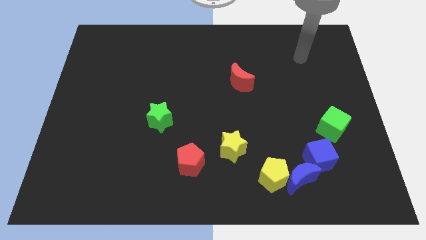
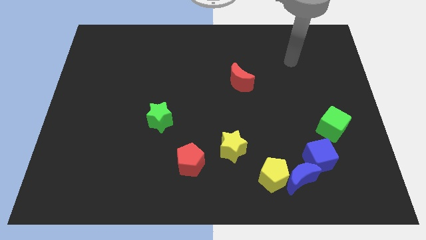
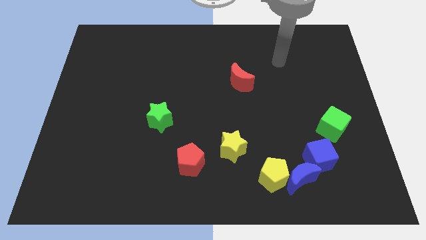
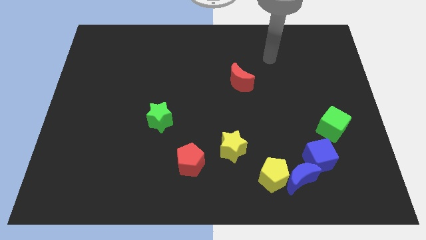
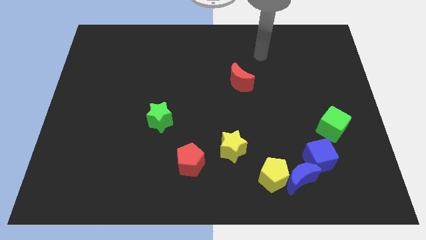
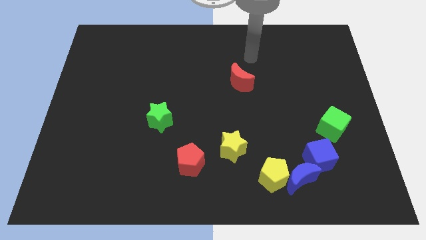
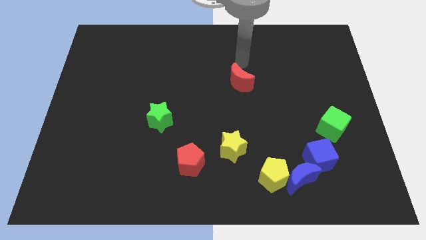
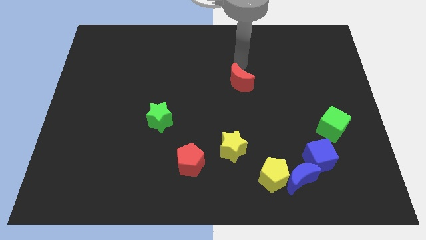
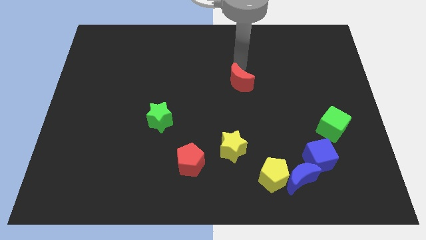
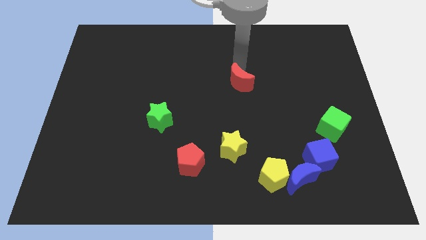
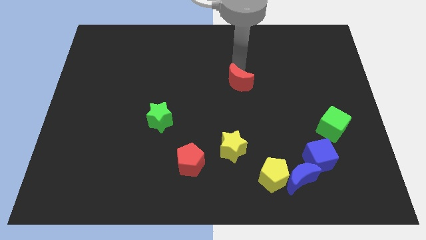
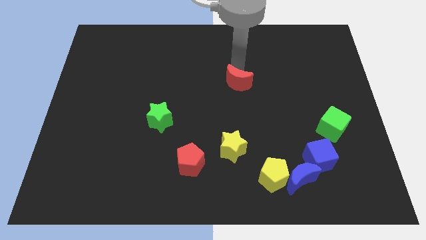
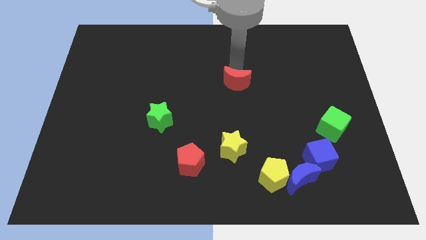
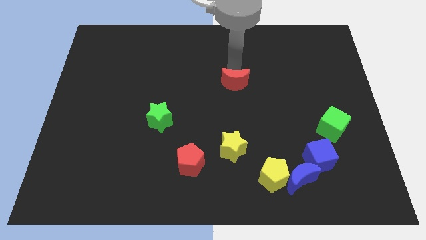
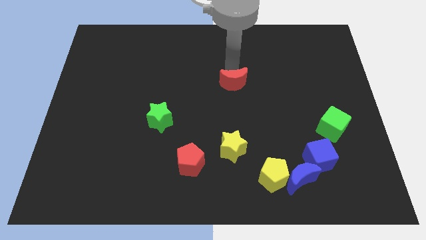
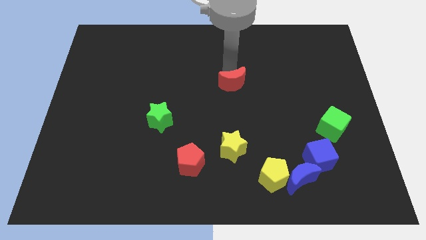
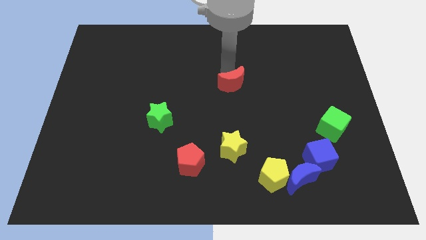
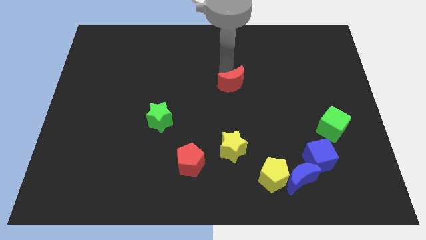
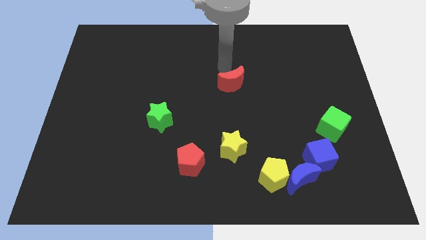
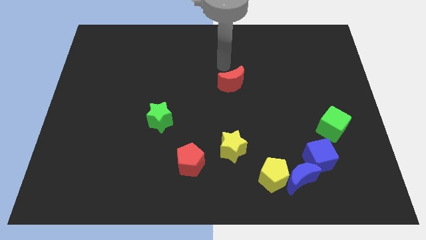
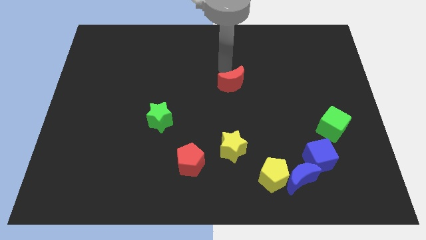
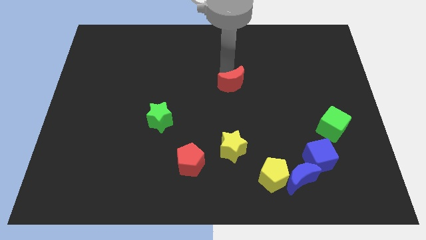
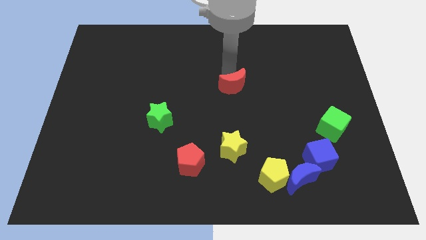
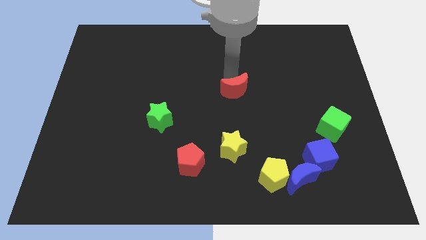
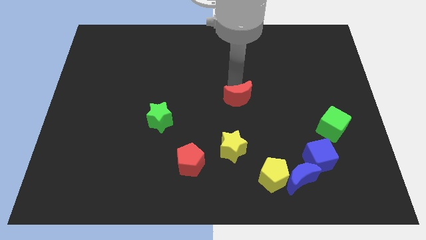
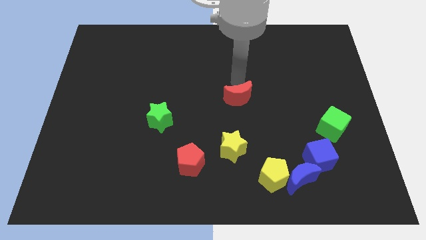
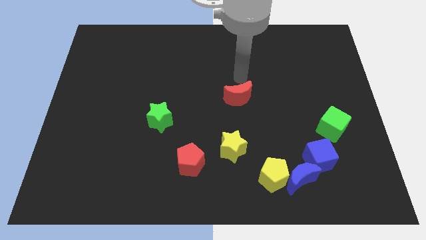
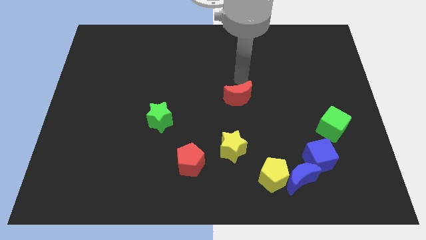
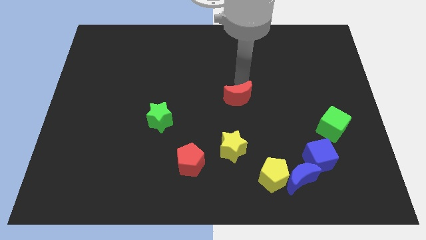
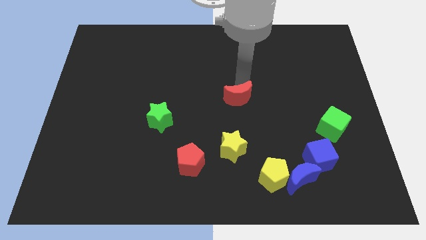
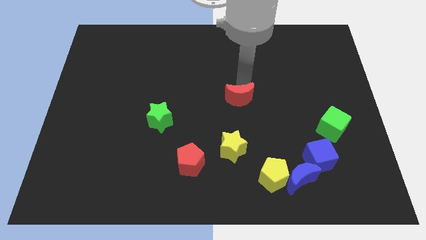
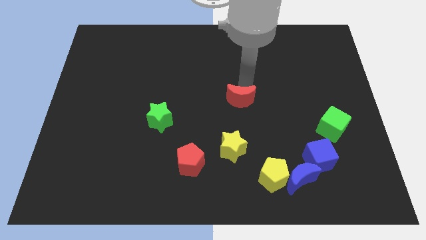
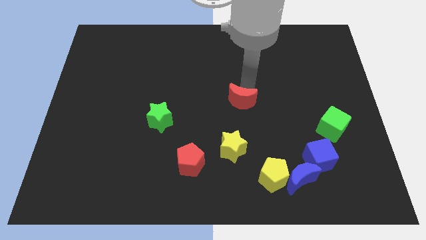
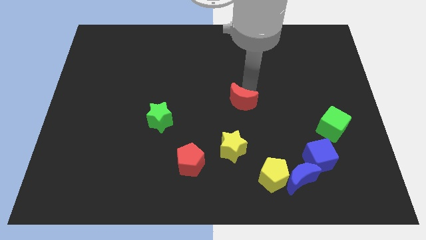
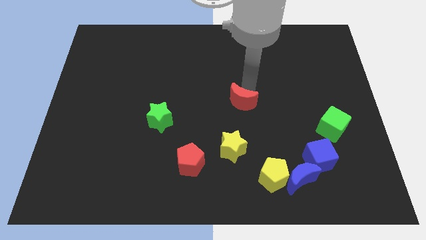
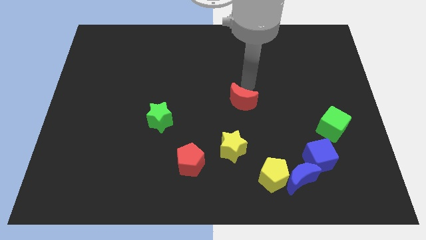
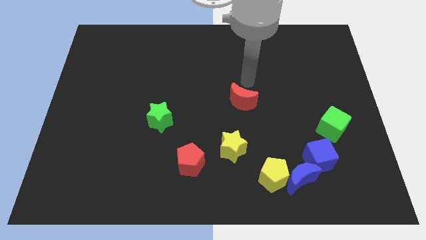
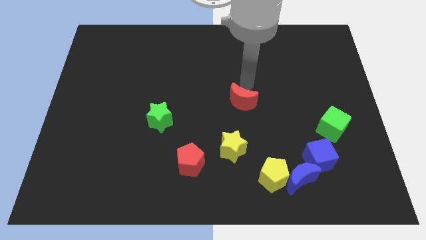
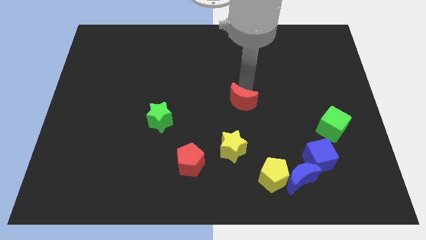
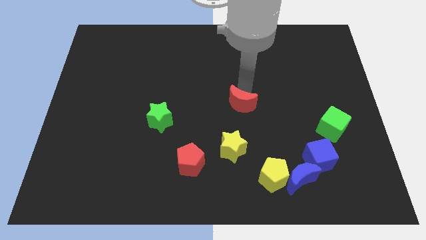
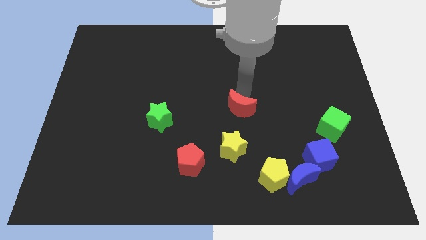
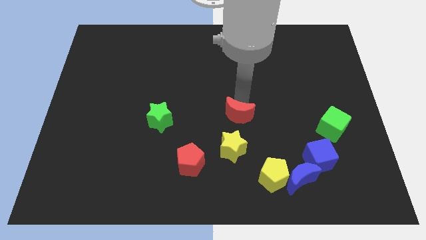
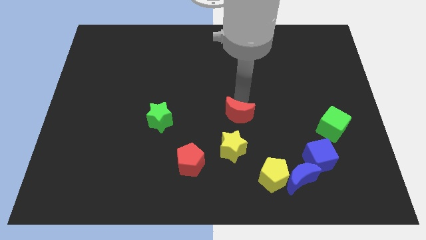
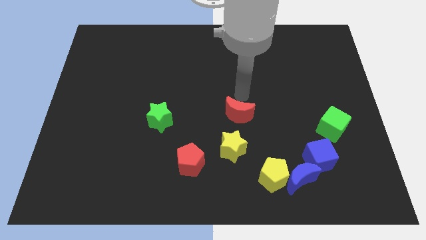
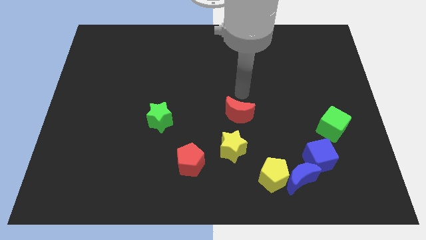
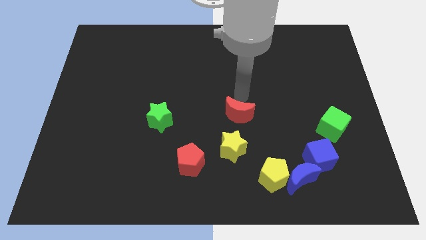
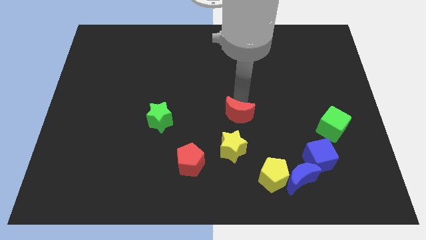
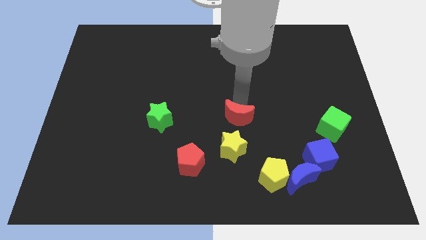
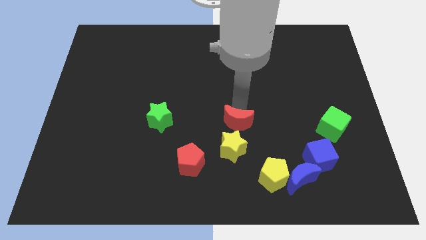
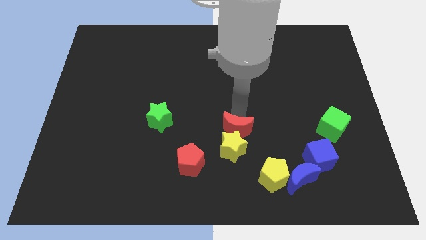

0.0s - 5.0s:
move the red moon next to the yellow star

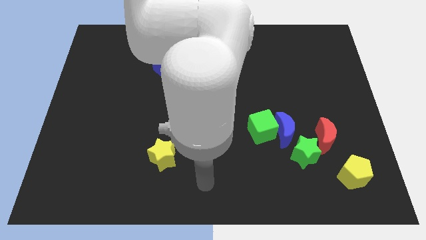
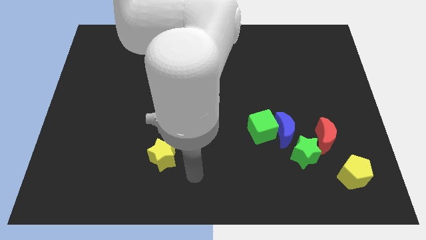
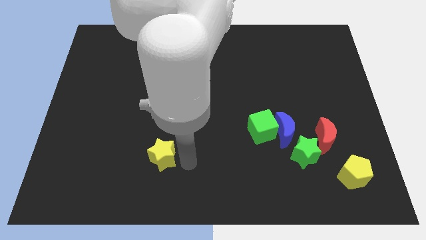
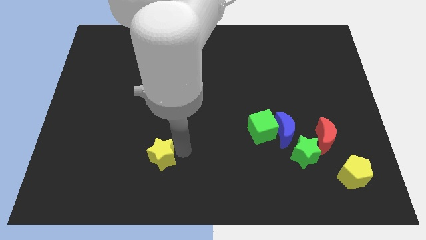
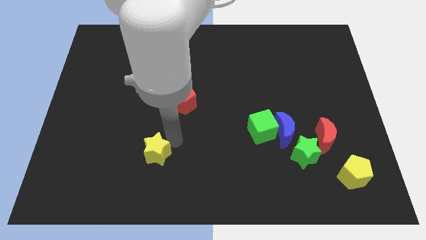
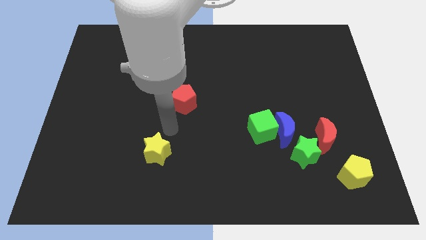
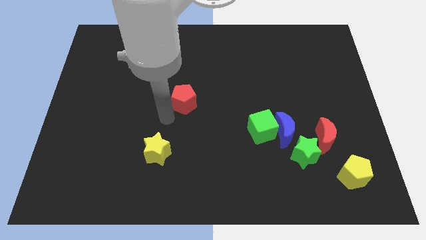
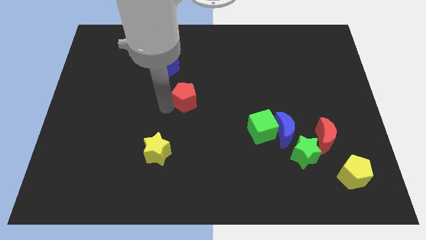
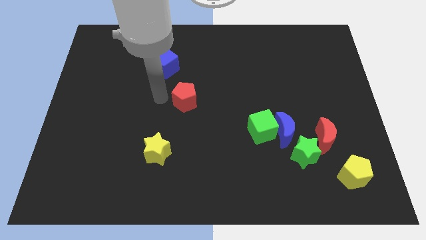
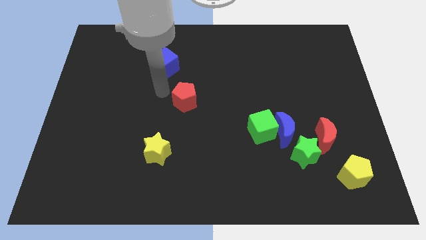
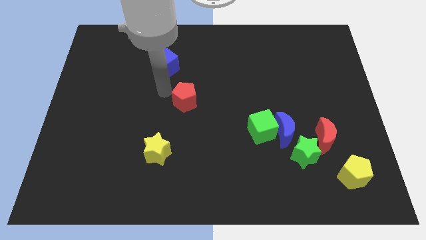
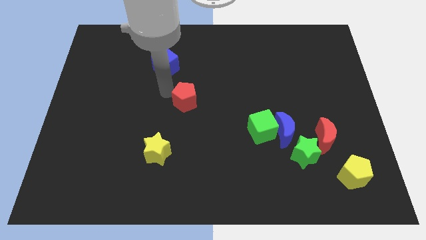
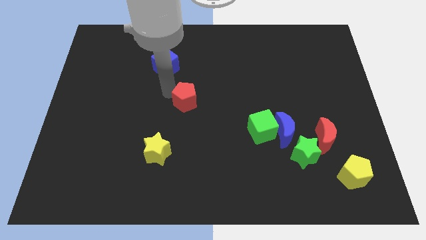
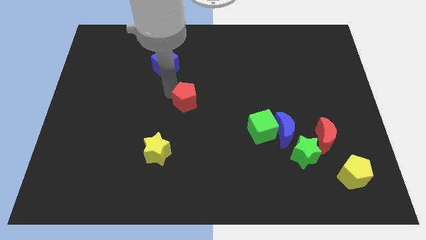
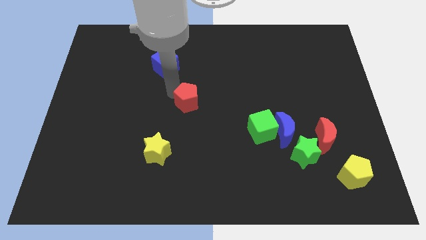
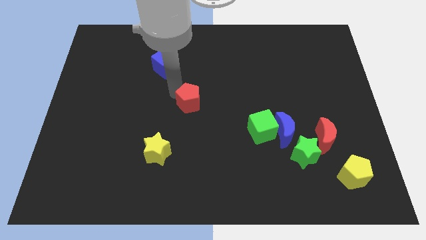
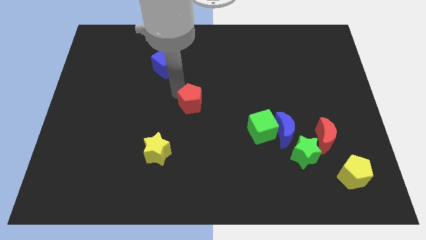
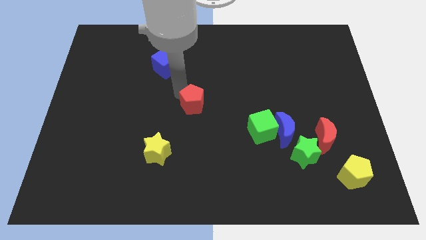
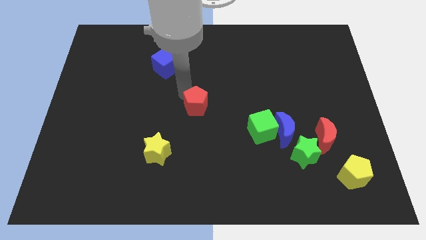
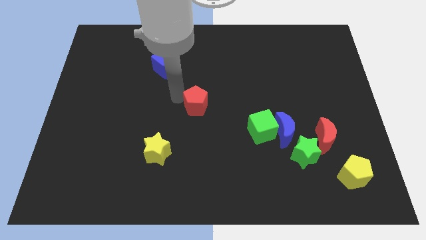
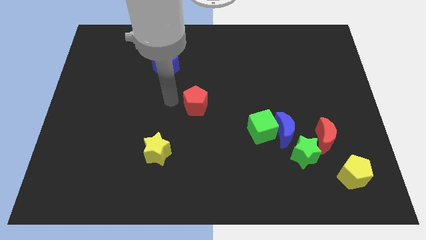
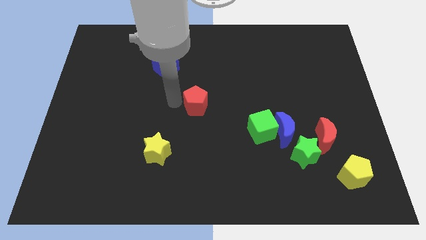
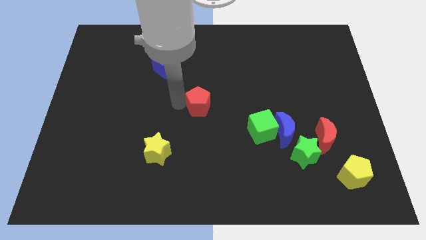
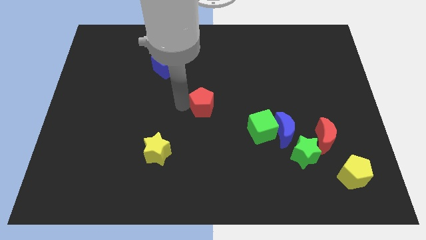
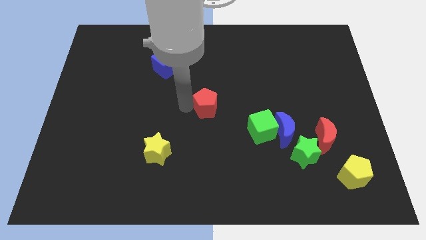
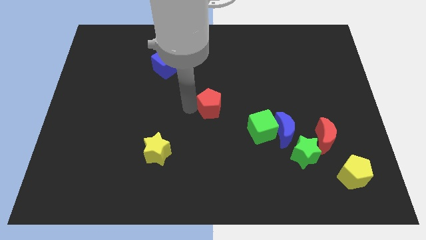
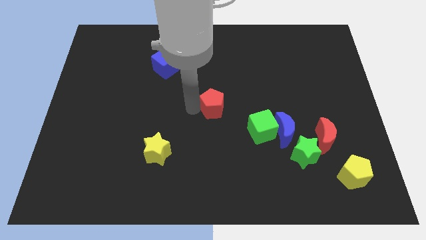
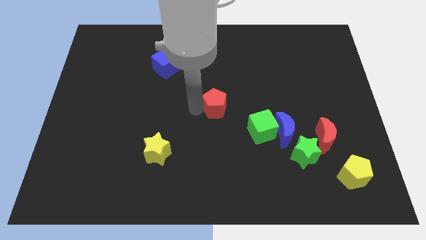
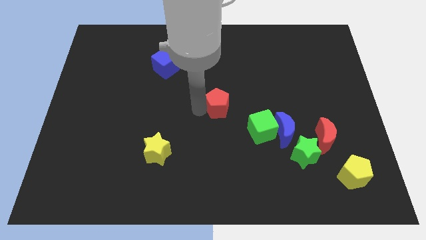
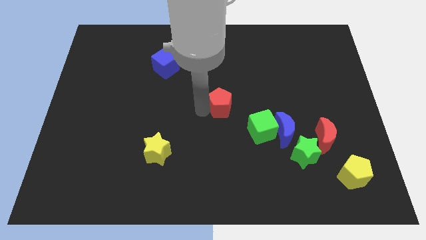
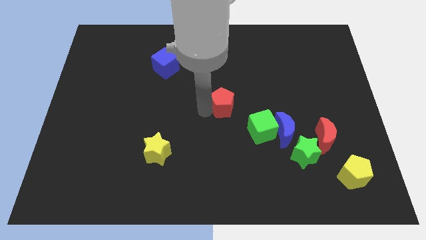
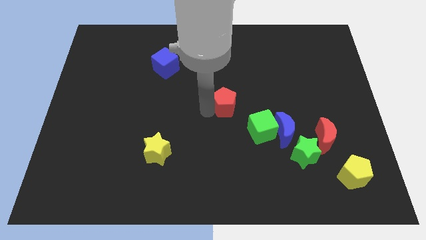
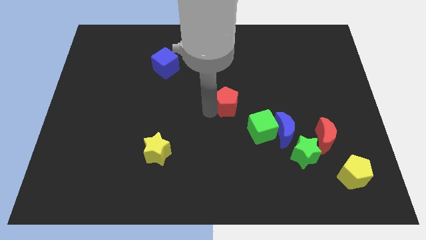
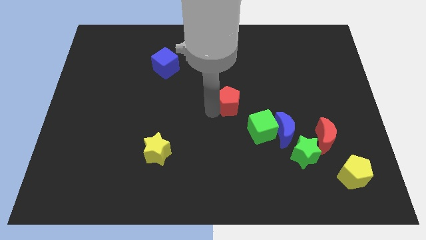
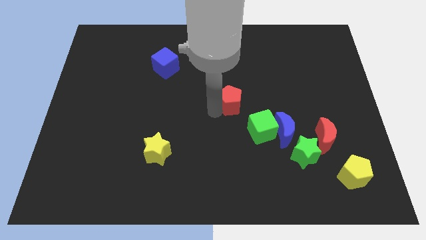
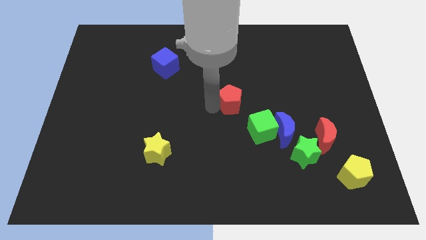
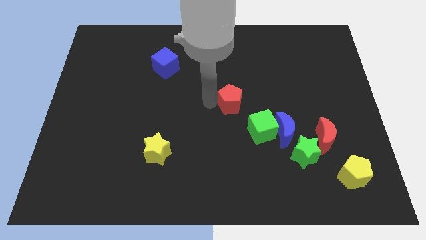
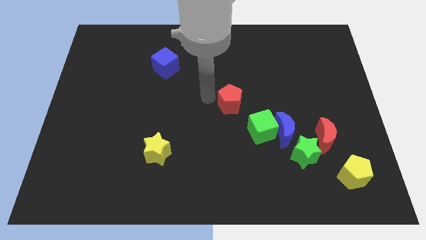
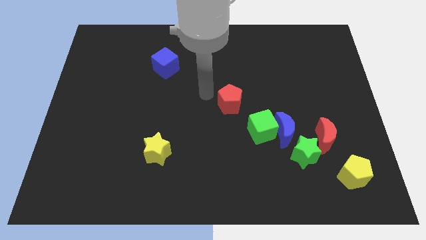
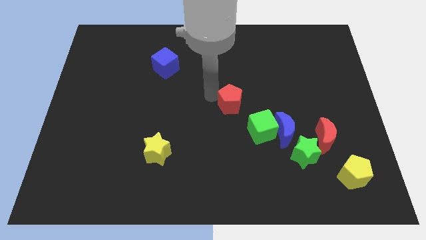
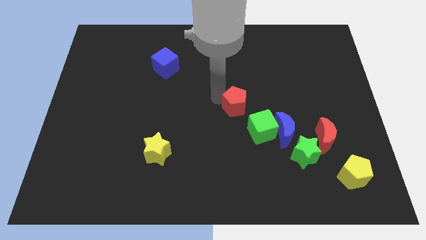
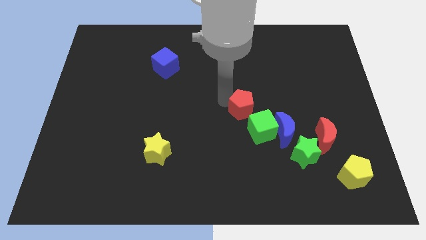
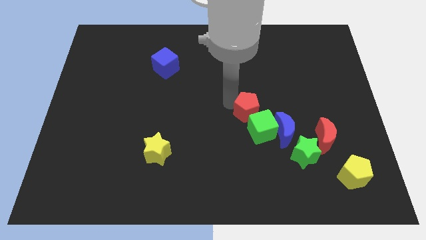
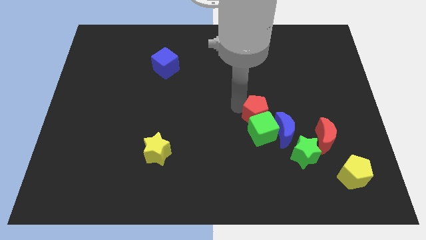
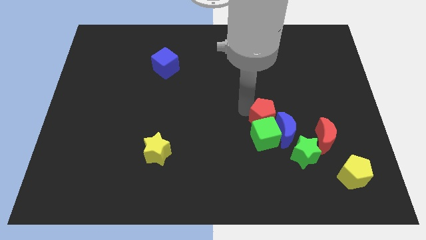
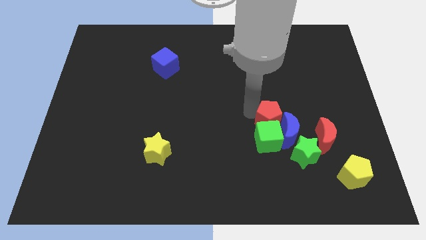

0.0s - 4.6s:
put the red pentagon towards the blue moon
